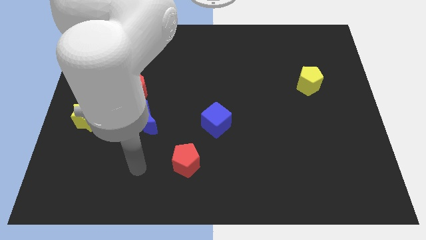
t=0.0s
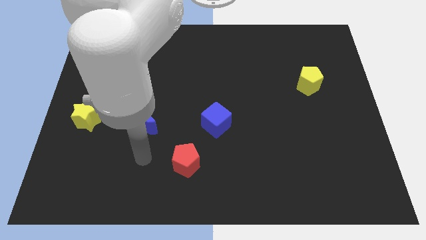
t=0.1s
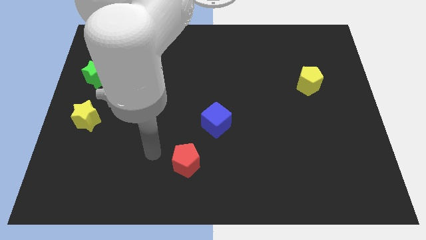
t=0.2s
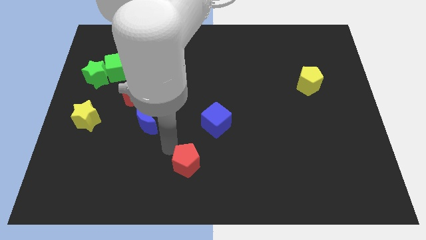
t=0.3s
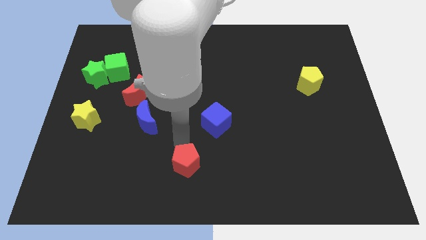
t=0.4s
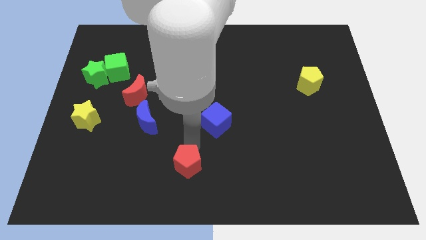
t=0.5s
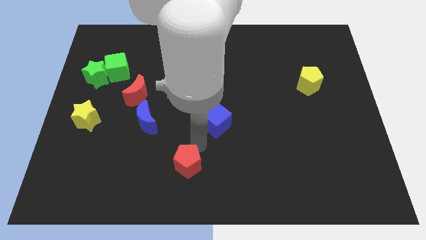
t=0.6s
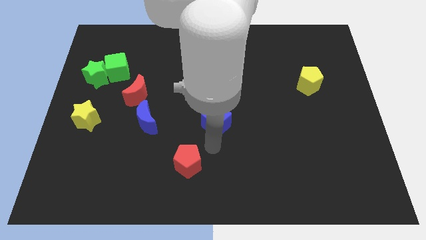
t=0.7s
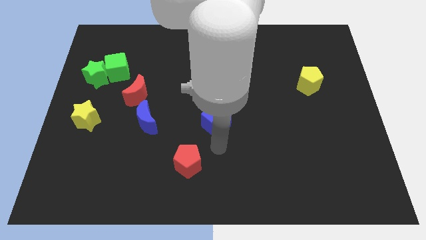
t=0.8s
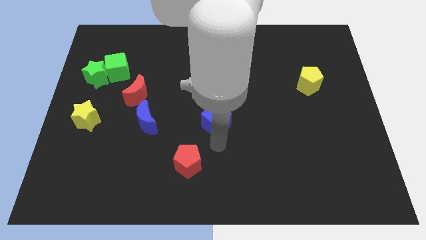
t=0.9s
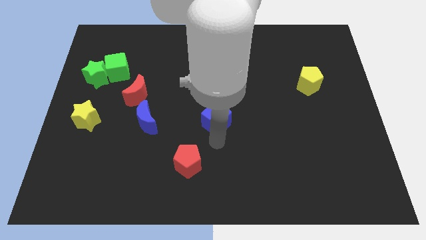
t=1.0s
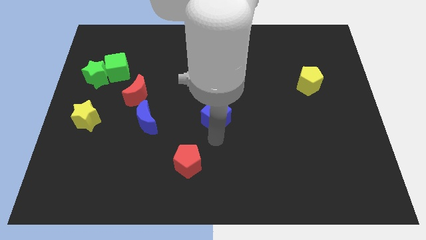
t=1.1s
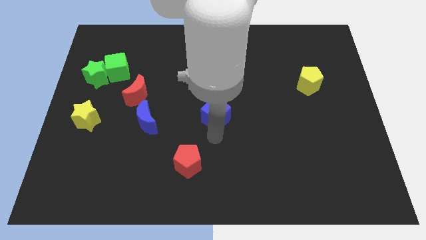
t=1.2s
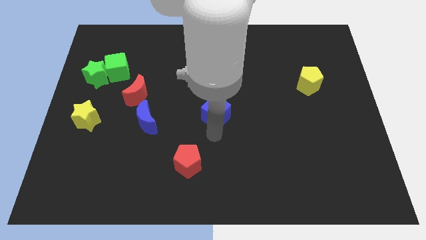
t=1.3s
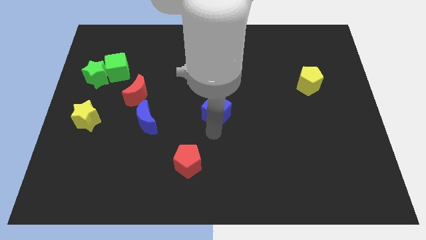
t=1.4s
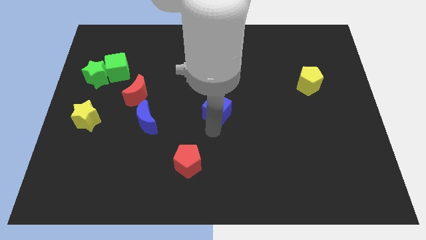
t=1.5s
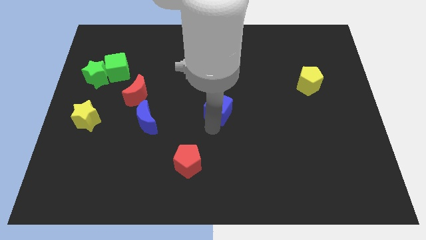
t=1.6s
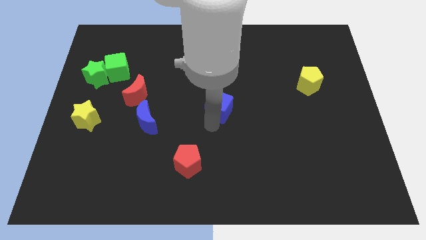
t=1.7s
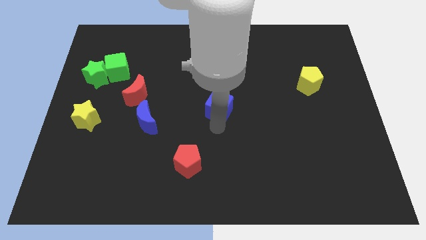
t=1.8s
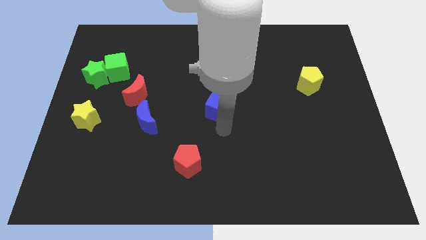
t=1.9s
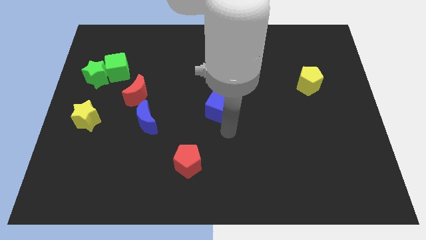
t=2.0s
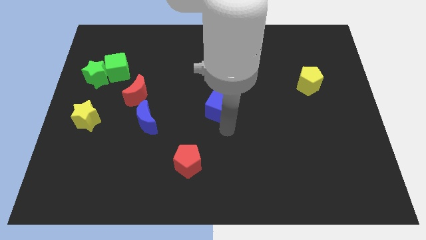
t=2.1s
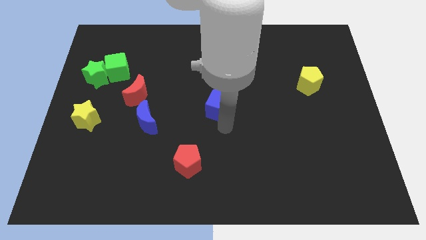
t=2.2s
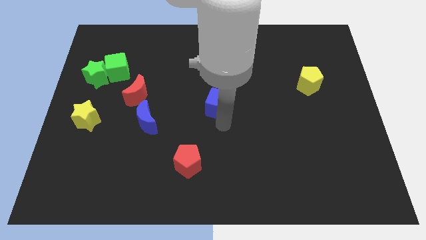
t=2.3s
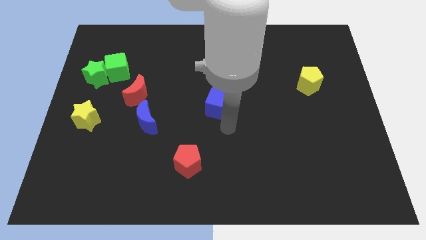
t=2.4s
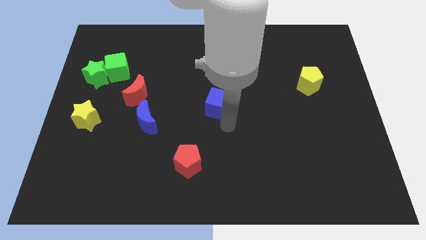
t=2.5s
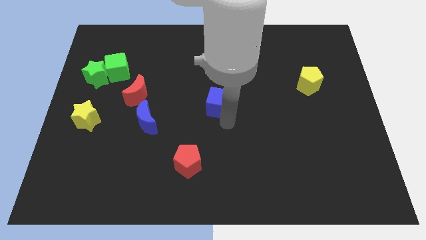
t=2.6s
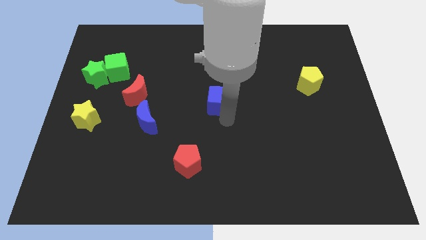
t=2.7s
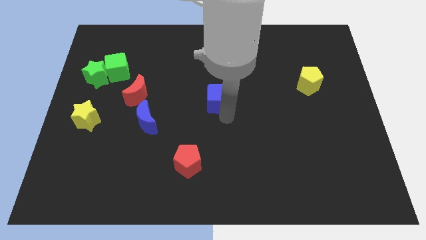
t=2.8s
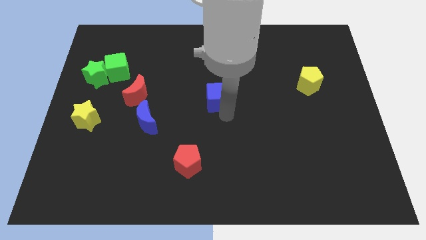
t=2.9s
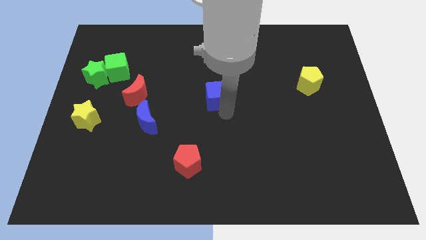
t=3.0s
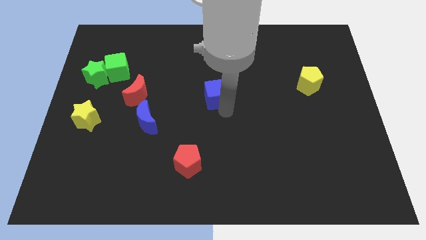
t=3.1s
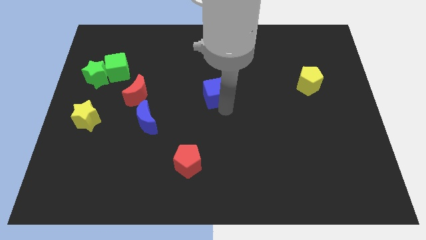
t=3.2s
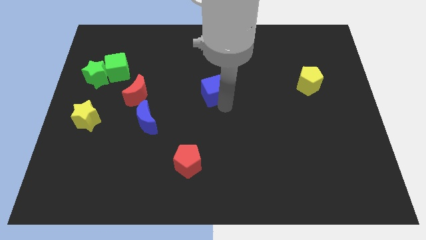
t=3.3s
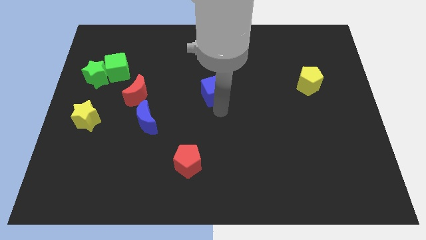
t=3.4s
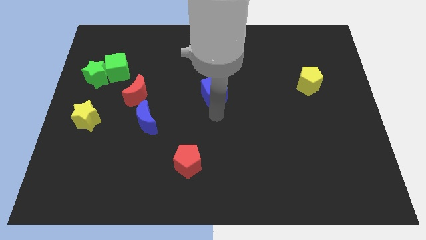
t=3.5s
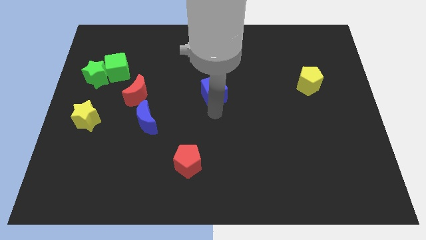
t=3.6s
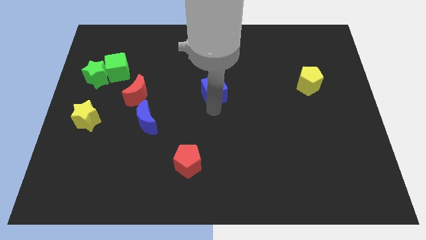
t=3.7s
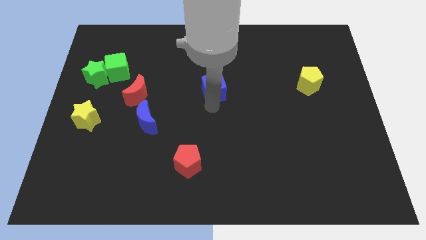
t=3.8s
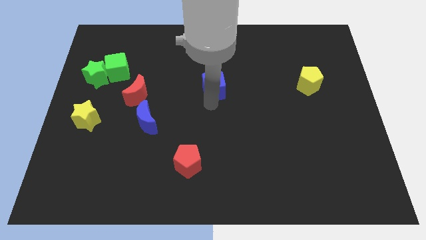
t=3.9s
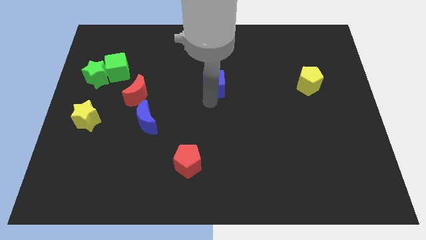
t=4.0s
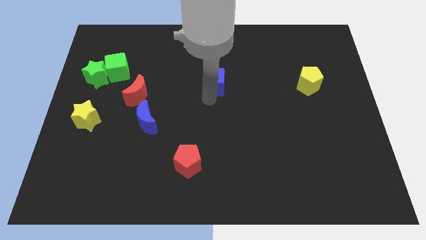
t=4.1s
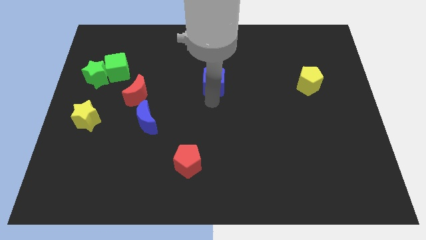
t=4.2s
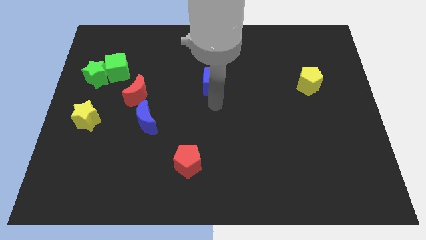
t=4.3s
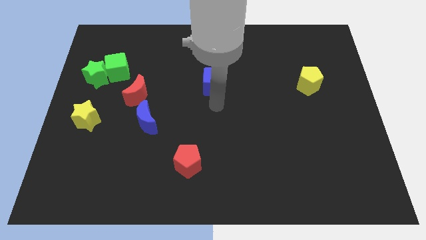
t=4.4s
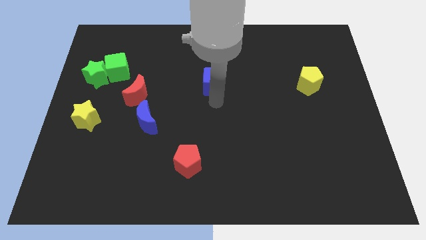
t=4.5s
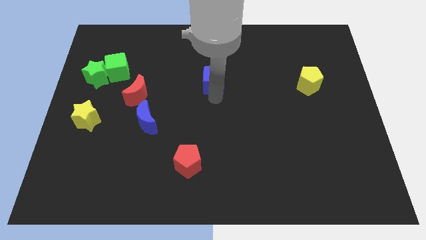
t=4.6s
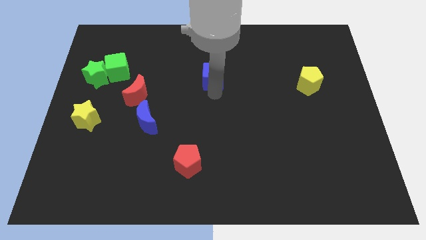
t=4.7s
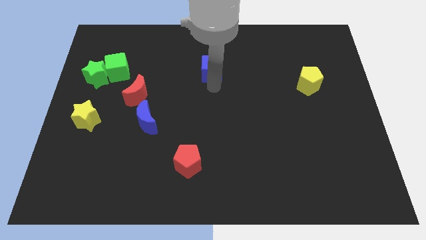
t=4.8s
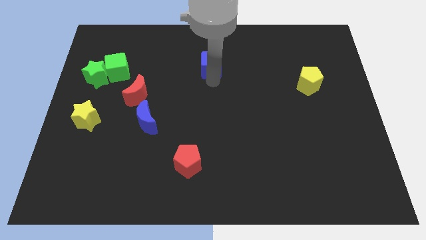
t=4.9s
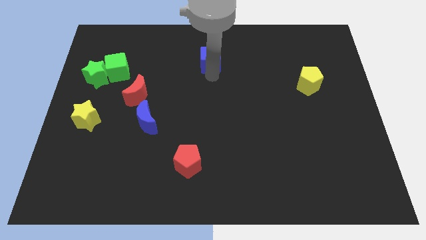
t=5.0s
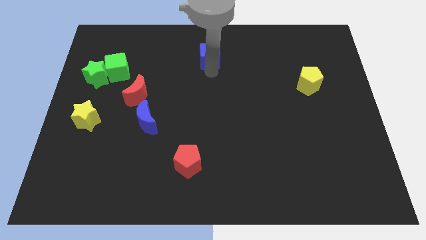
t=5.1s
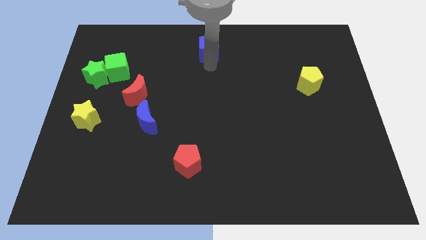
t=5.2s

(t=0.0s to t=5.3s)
push the blue cube to the towards your base
